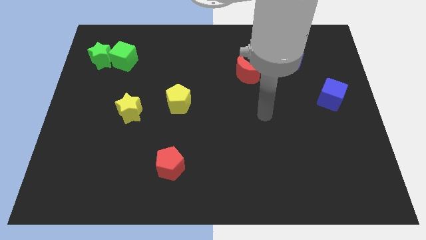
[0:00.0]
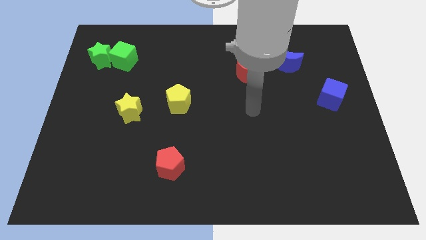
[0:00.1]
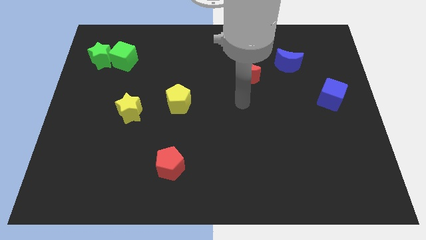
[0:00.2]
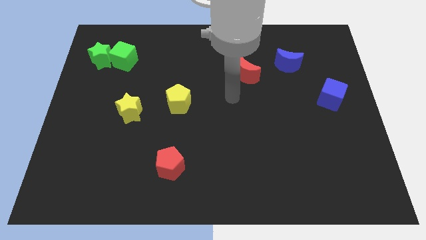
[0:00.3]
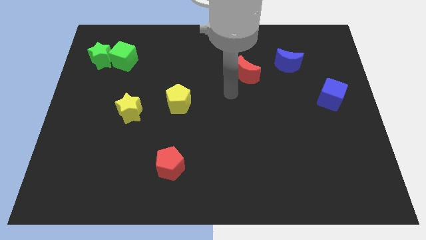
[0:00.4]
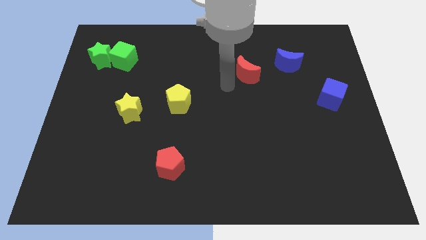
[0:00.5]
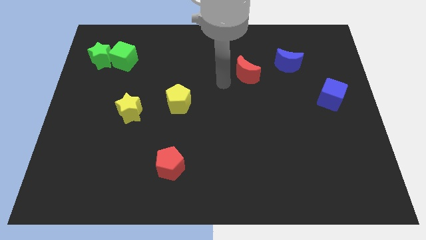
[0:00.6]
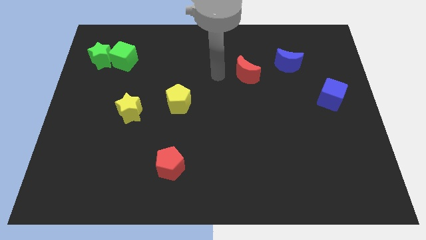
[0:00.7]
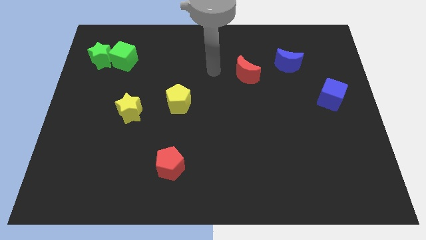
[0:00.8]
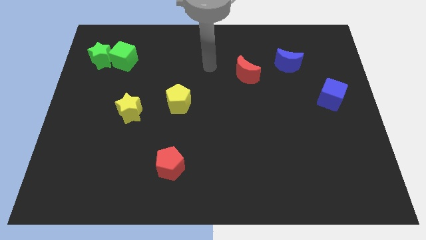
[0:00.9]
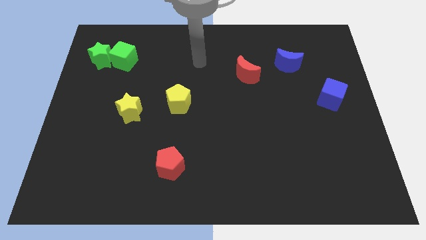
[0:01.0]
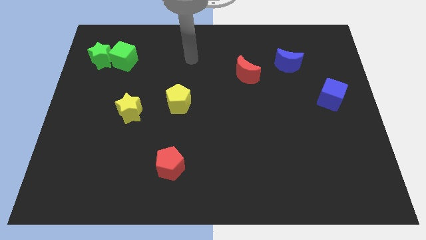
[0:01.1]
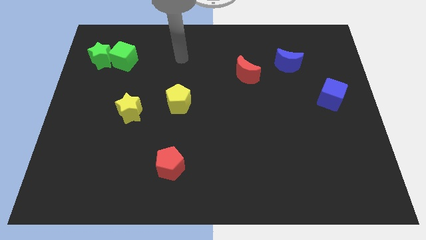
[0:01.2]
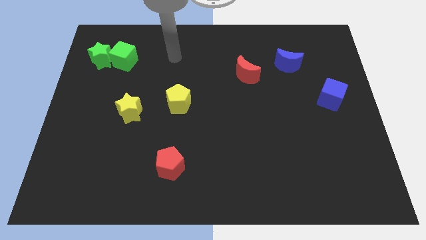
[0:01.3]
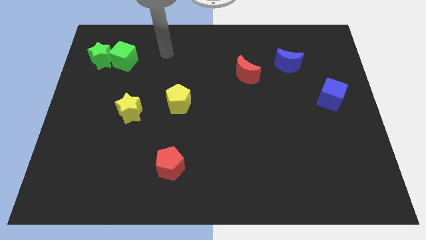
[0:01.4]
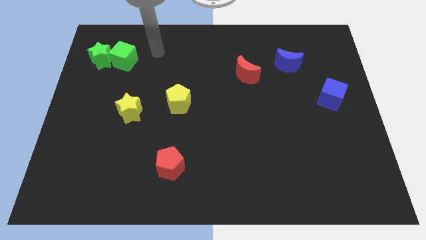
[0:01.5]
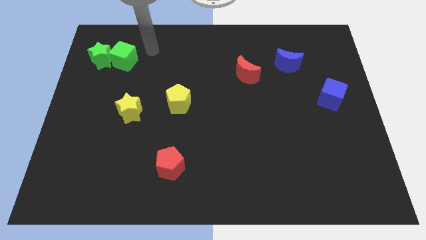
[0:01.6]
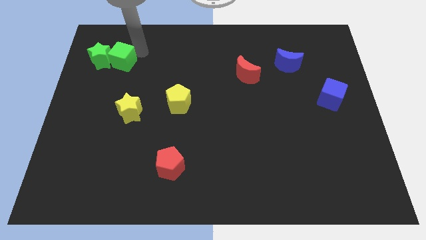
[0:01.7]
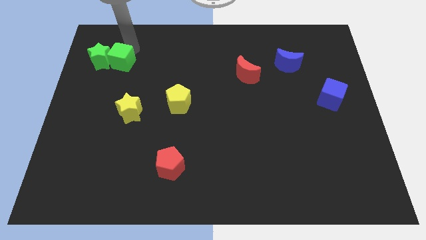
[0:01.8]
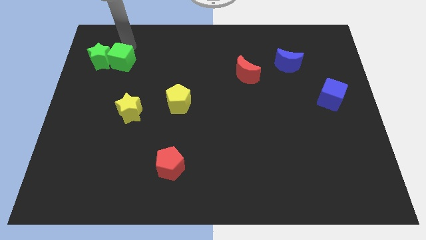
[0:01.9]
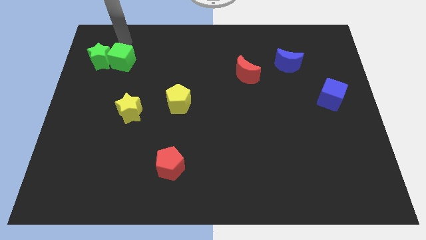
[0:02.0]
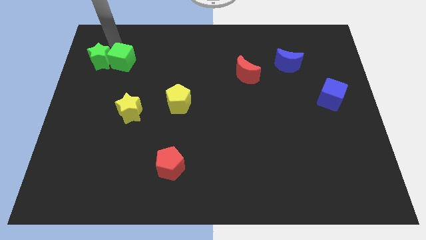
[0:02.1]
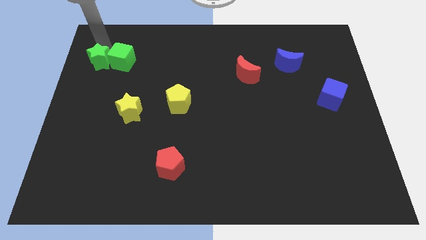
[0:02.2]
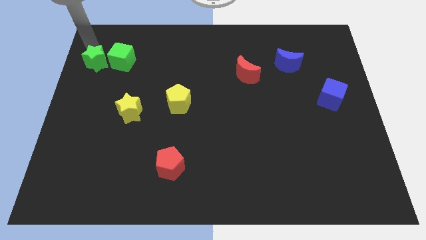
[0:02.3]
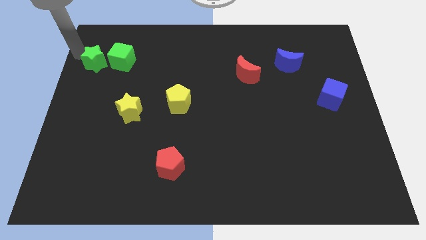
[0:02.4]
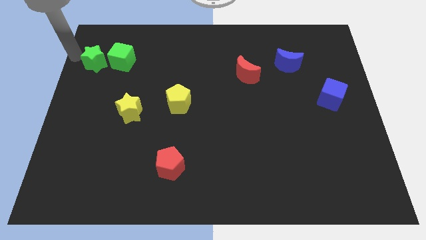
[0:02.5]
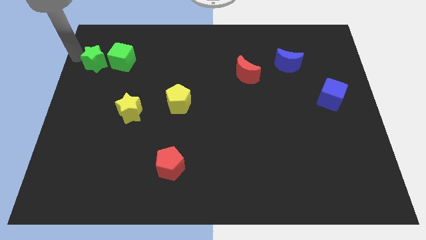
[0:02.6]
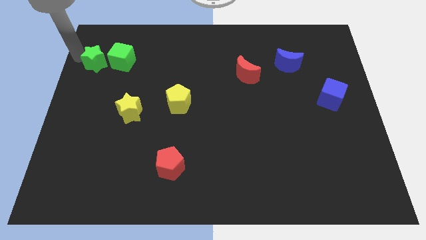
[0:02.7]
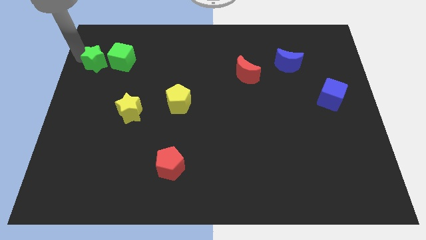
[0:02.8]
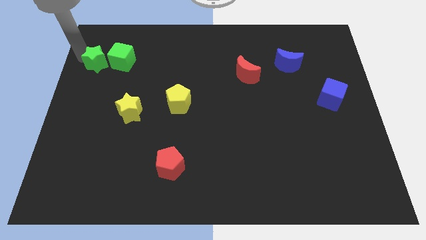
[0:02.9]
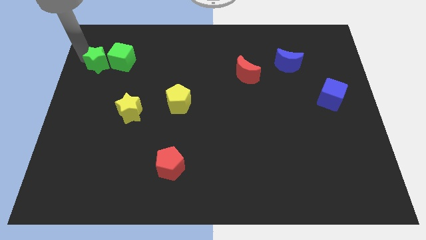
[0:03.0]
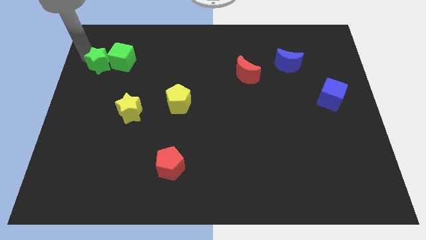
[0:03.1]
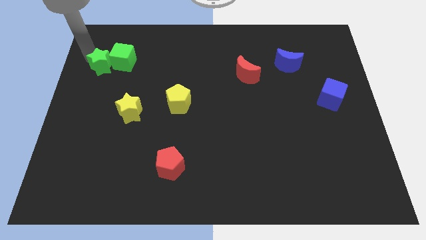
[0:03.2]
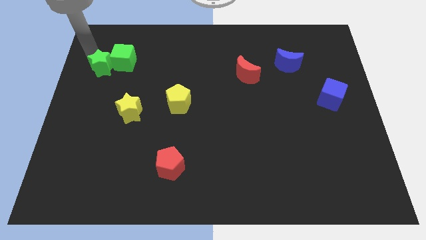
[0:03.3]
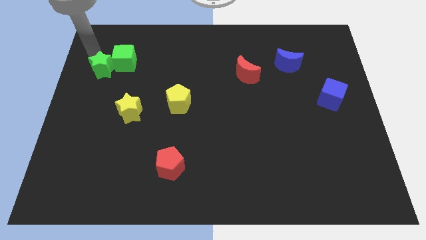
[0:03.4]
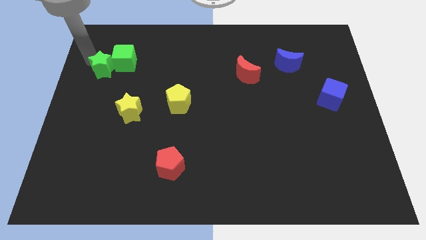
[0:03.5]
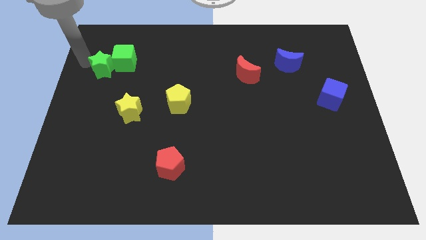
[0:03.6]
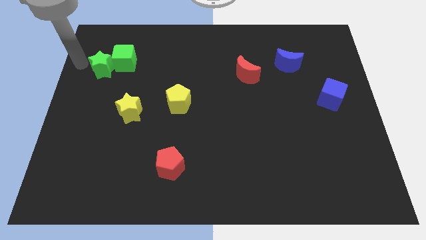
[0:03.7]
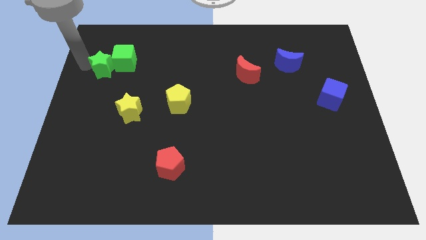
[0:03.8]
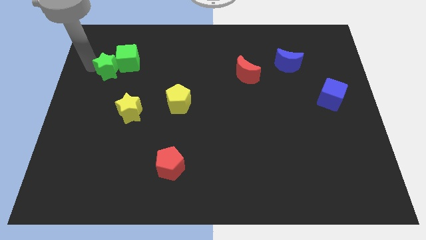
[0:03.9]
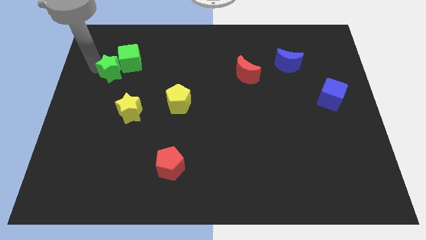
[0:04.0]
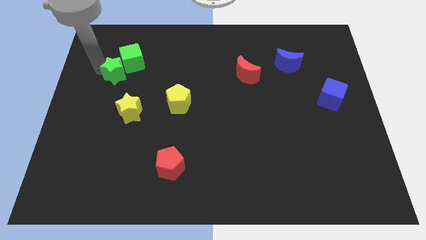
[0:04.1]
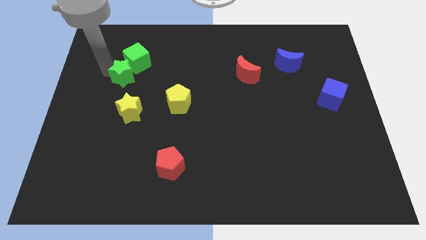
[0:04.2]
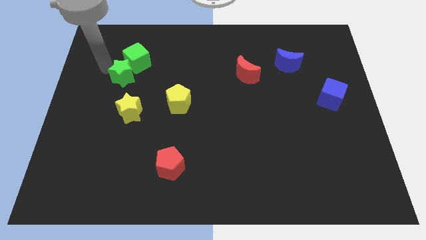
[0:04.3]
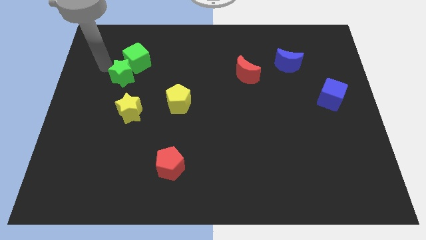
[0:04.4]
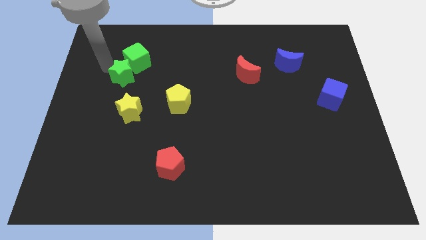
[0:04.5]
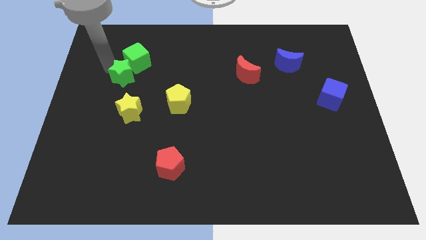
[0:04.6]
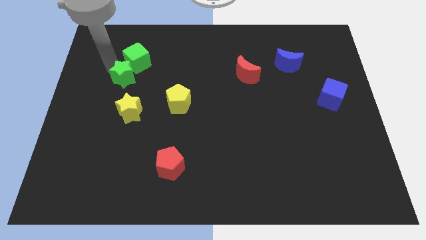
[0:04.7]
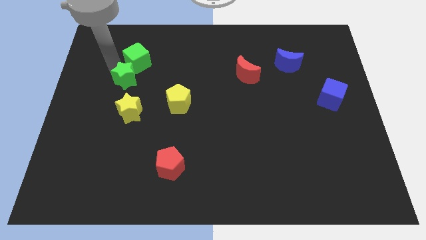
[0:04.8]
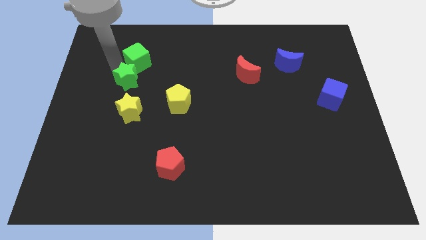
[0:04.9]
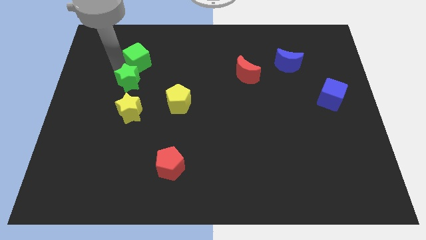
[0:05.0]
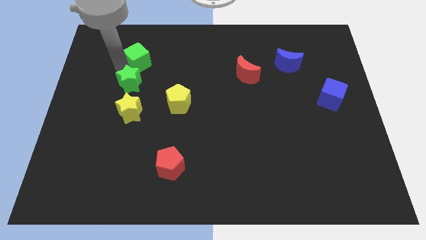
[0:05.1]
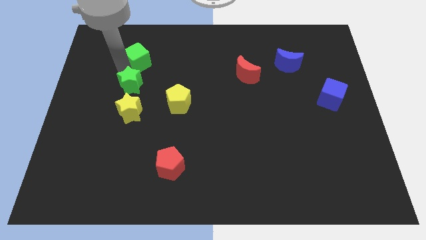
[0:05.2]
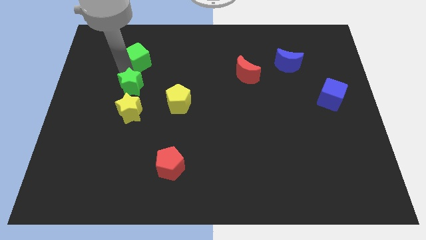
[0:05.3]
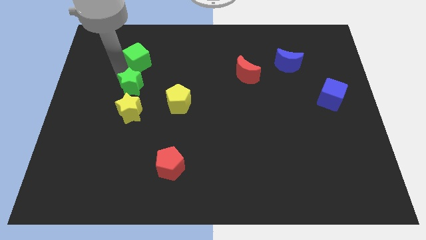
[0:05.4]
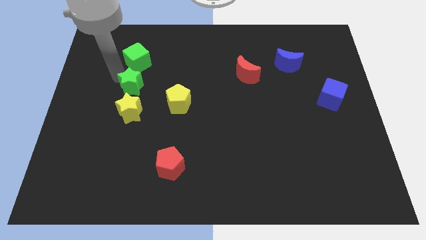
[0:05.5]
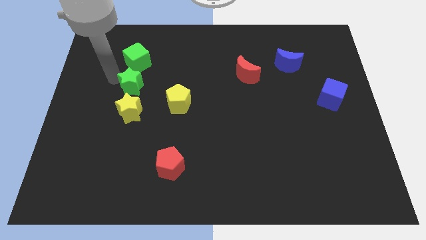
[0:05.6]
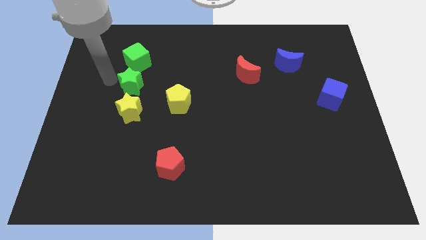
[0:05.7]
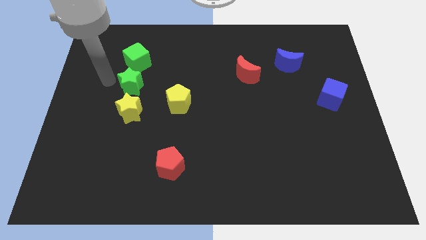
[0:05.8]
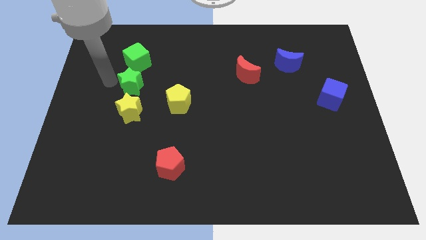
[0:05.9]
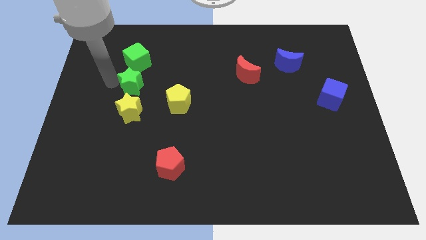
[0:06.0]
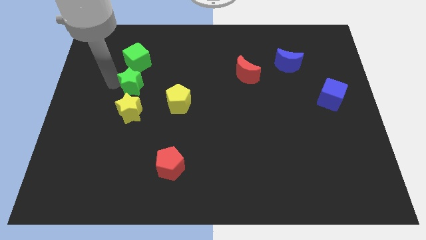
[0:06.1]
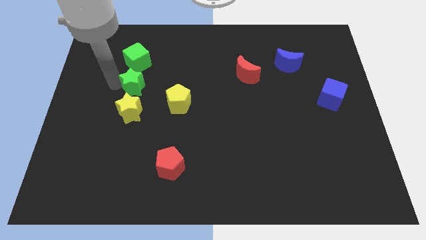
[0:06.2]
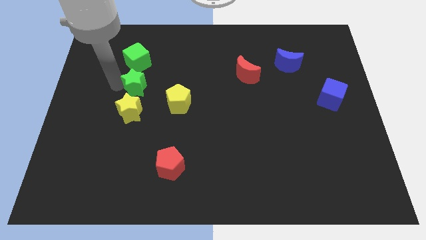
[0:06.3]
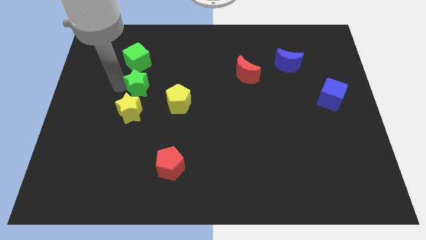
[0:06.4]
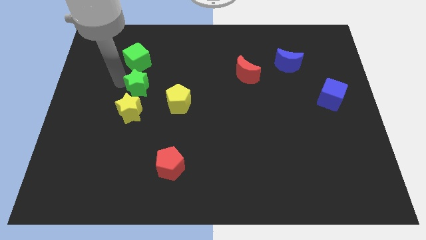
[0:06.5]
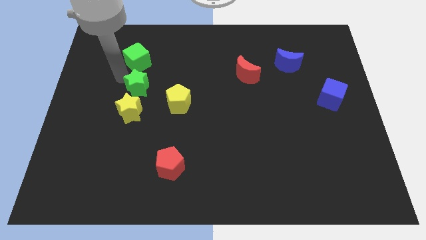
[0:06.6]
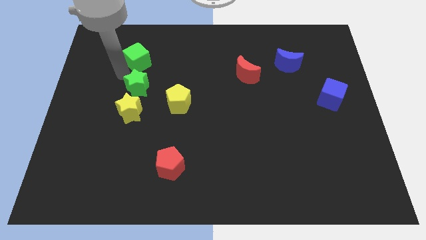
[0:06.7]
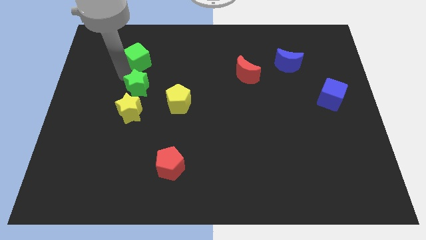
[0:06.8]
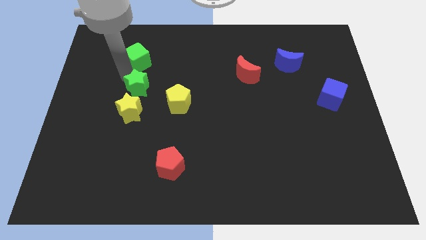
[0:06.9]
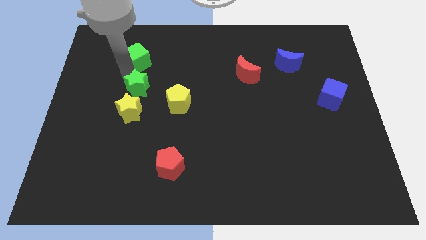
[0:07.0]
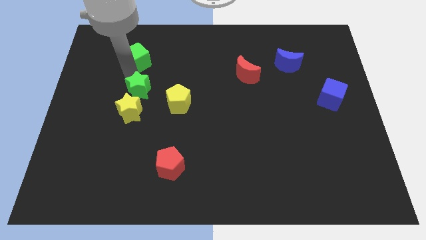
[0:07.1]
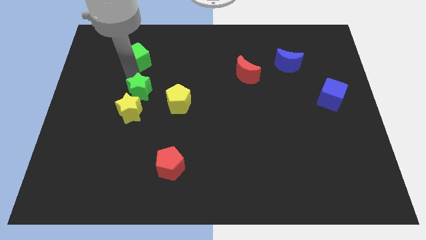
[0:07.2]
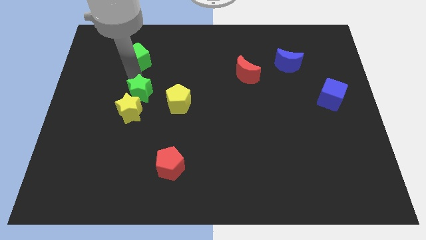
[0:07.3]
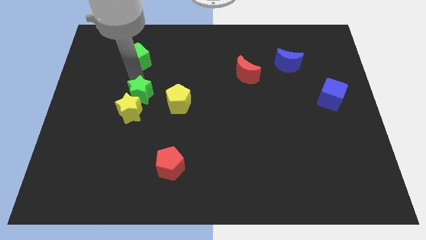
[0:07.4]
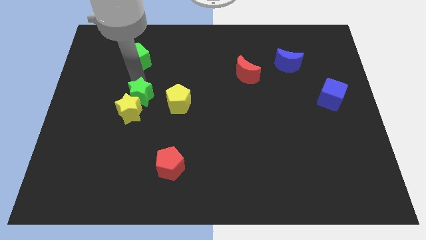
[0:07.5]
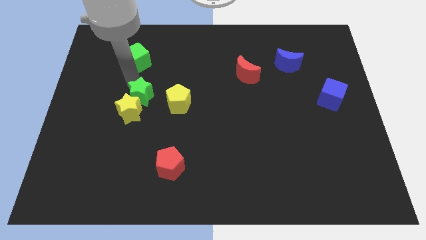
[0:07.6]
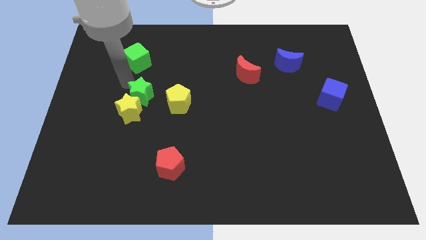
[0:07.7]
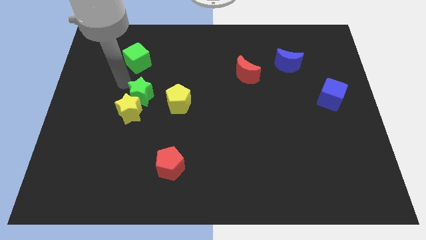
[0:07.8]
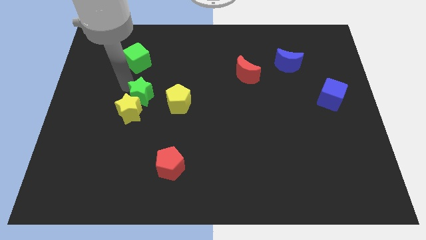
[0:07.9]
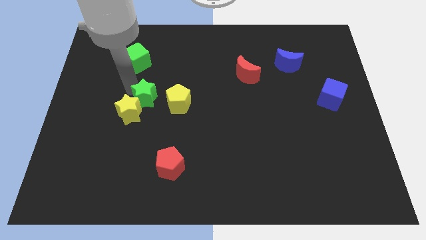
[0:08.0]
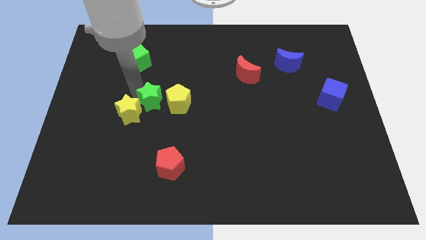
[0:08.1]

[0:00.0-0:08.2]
slide the green star down and to the right diagonally
